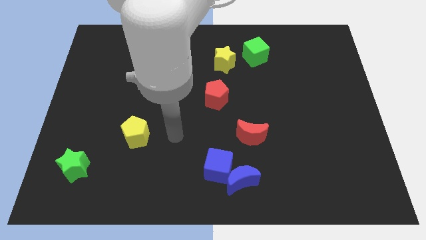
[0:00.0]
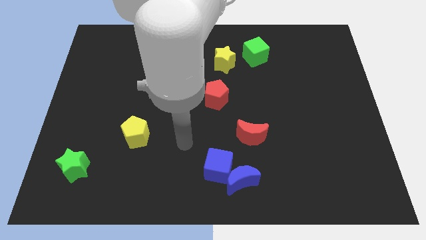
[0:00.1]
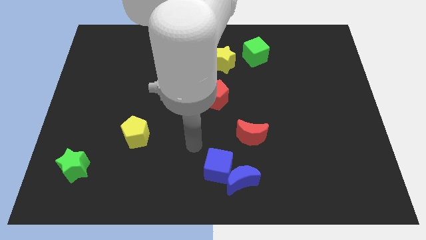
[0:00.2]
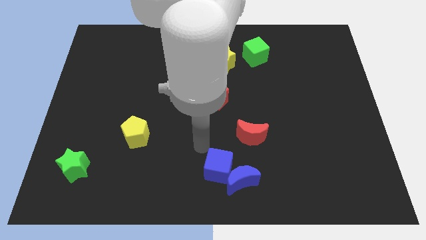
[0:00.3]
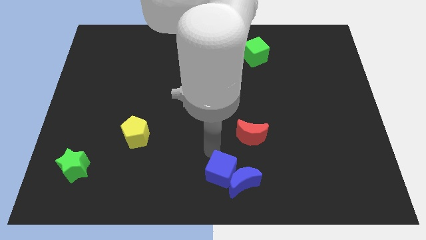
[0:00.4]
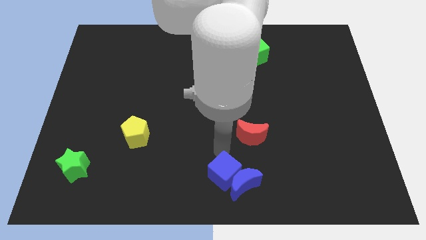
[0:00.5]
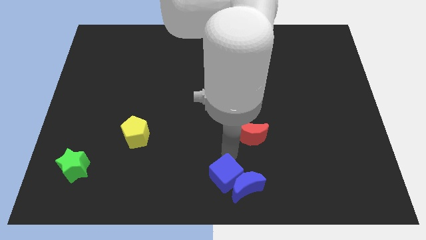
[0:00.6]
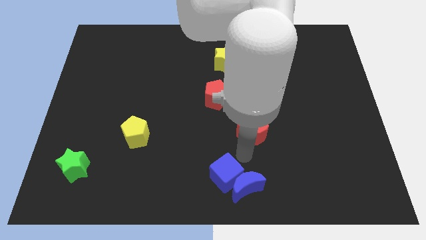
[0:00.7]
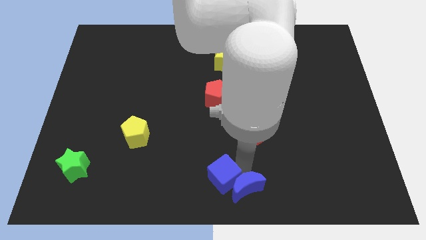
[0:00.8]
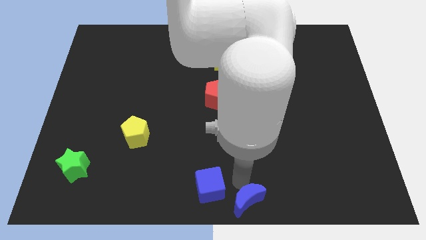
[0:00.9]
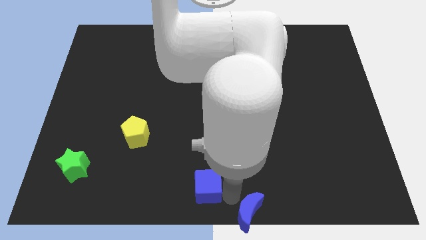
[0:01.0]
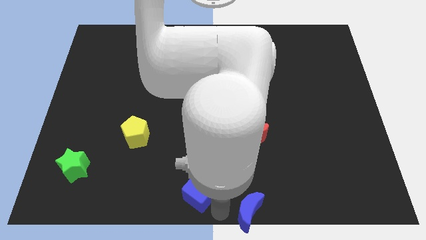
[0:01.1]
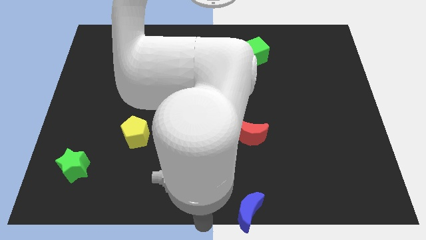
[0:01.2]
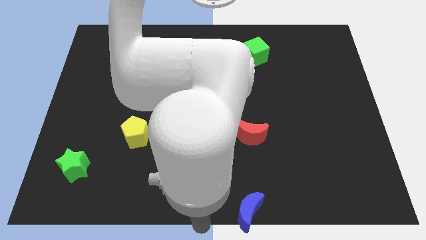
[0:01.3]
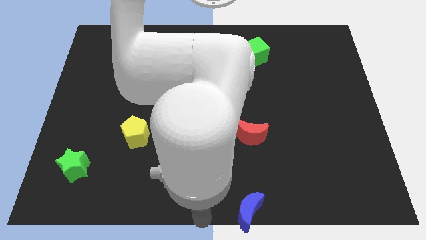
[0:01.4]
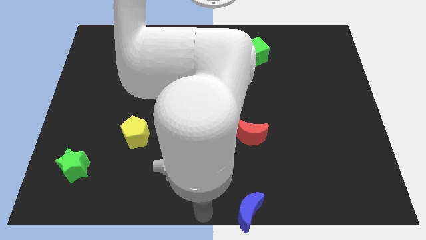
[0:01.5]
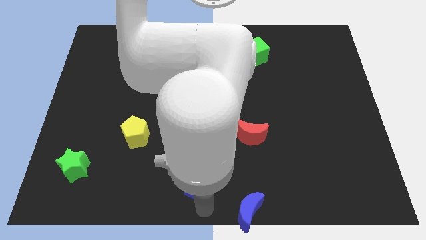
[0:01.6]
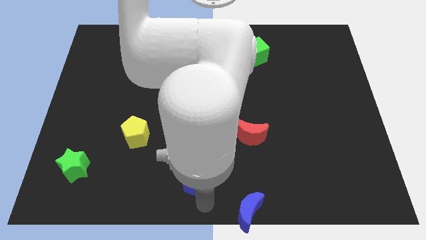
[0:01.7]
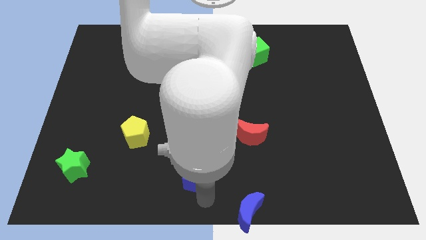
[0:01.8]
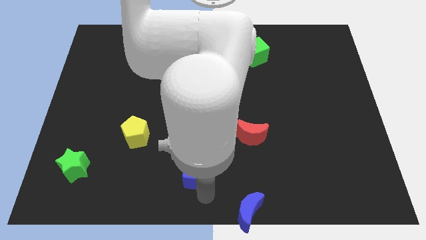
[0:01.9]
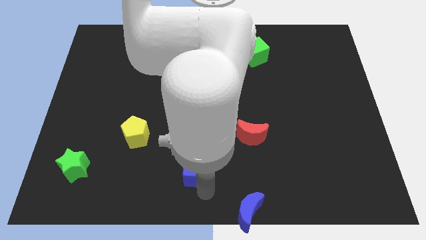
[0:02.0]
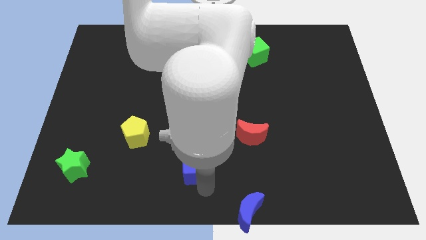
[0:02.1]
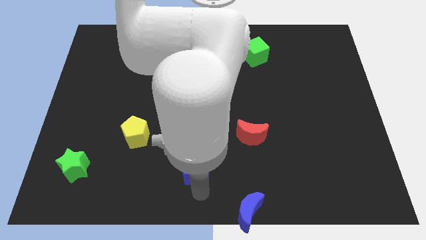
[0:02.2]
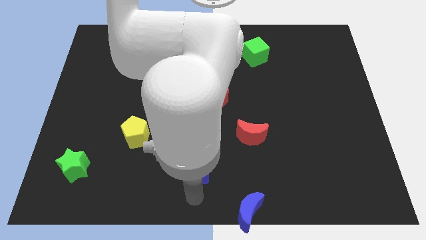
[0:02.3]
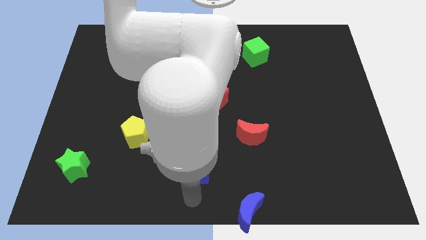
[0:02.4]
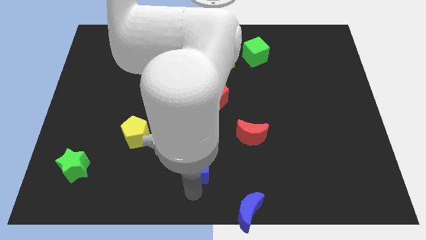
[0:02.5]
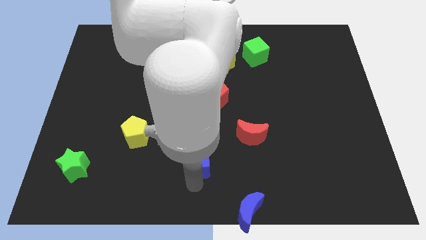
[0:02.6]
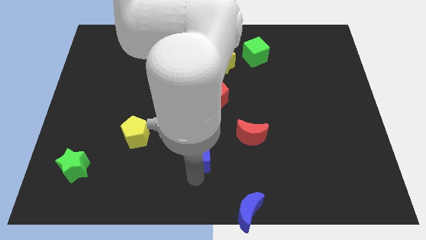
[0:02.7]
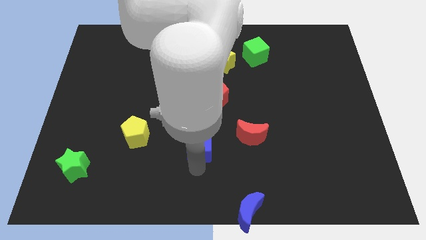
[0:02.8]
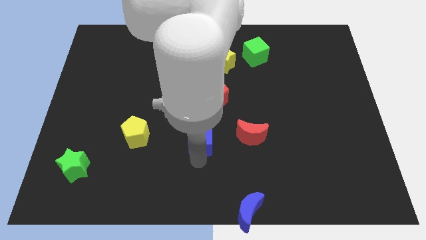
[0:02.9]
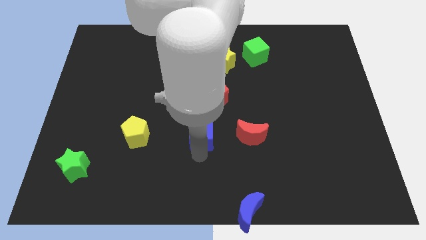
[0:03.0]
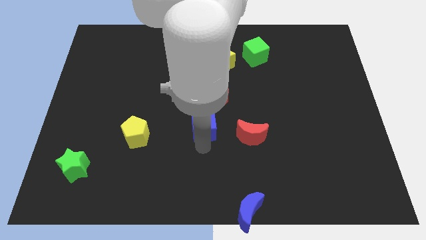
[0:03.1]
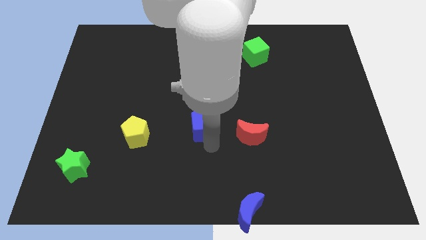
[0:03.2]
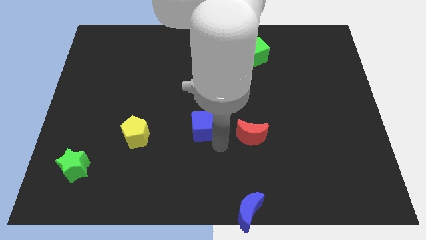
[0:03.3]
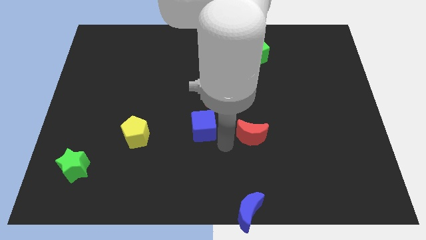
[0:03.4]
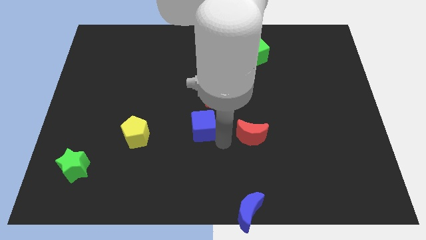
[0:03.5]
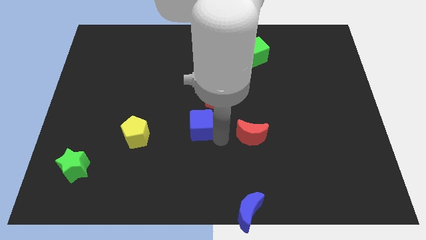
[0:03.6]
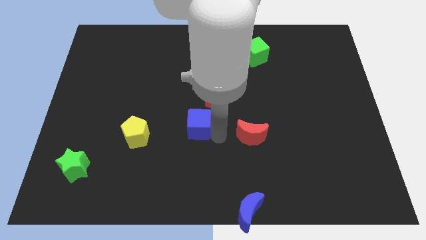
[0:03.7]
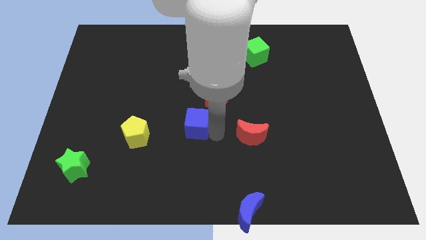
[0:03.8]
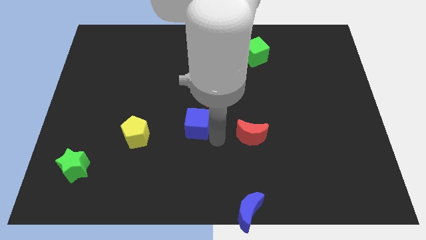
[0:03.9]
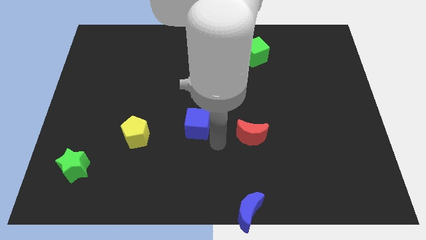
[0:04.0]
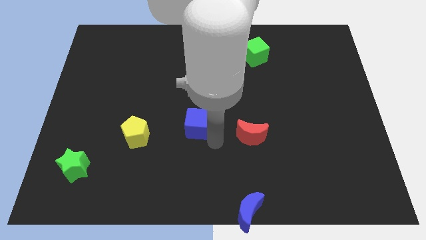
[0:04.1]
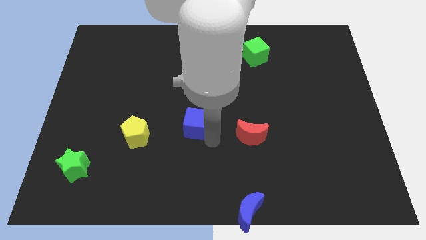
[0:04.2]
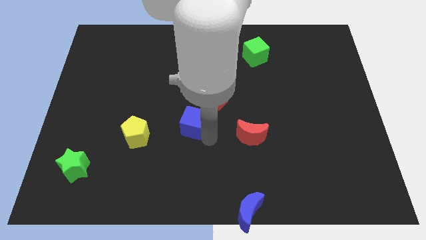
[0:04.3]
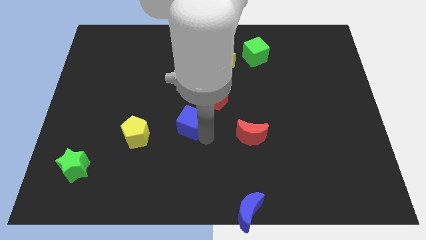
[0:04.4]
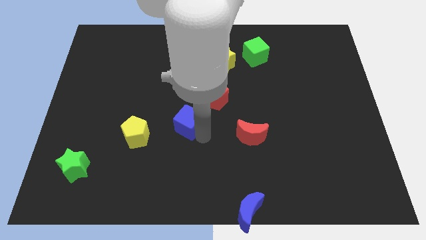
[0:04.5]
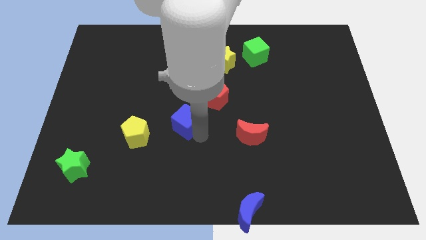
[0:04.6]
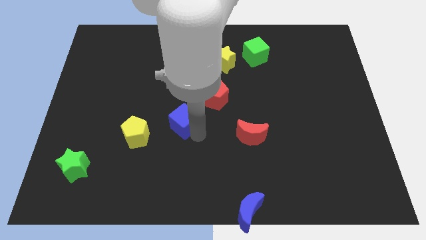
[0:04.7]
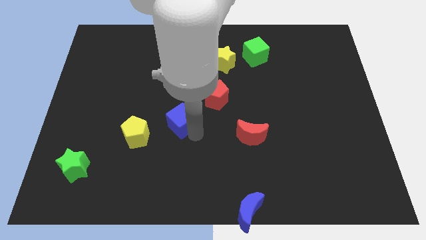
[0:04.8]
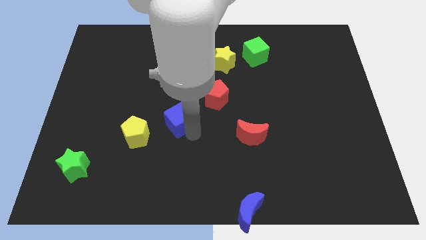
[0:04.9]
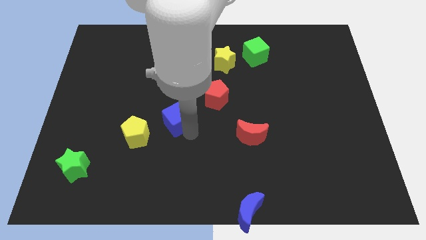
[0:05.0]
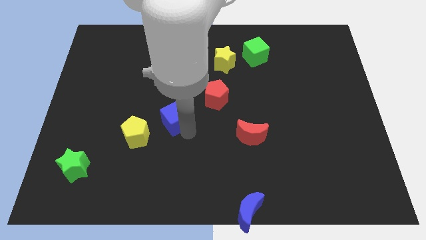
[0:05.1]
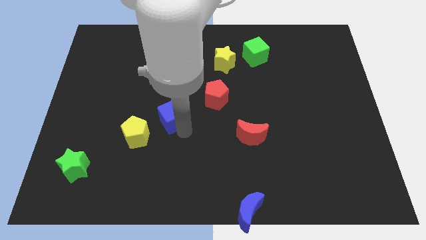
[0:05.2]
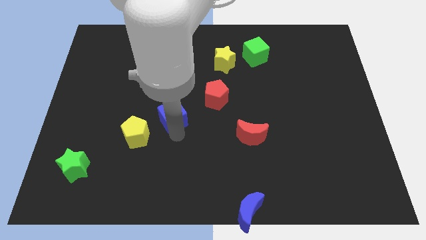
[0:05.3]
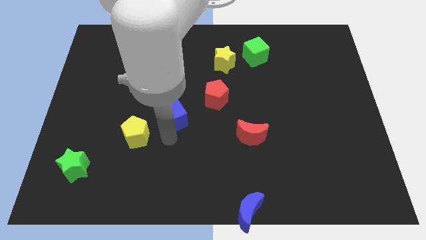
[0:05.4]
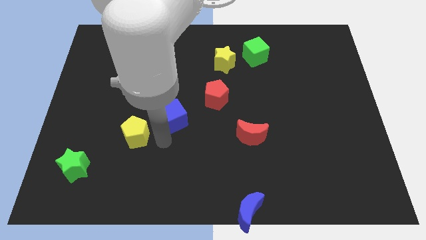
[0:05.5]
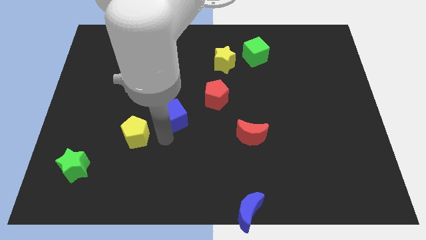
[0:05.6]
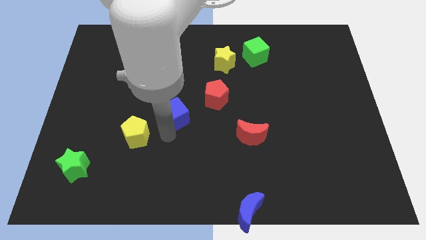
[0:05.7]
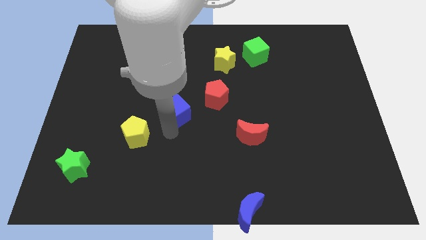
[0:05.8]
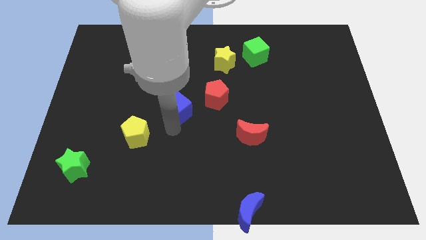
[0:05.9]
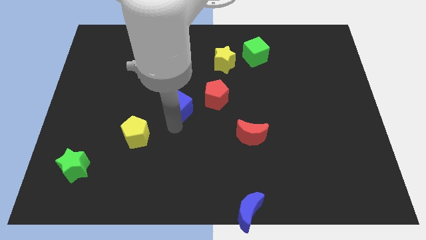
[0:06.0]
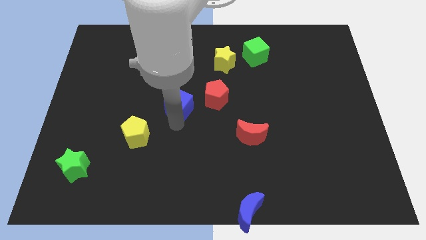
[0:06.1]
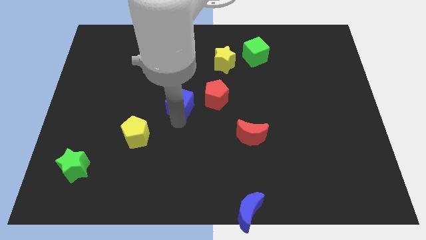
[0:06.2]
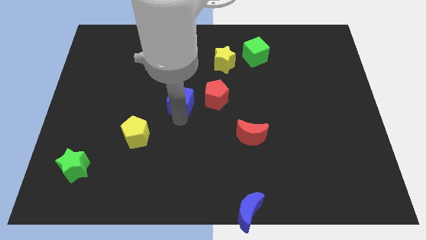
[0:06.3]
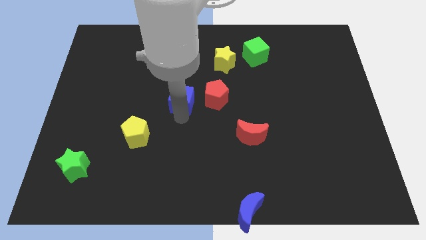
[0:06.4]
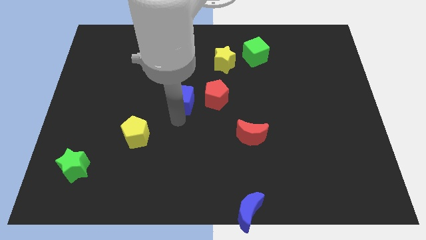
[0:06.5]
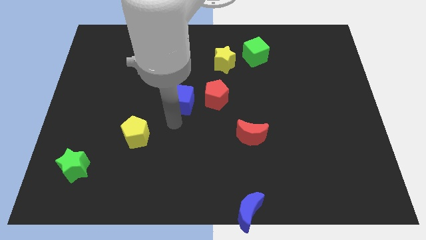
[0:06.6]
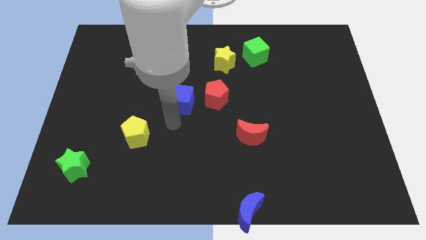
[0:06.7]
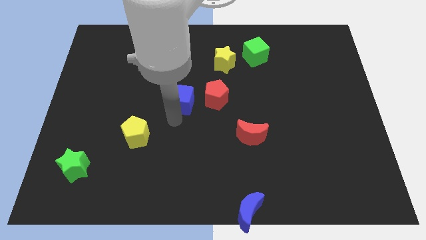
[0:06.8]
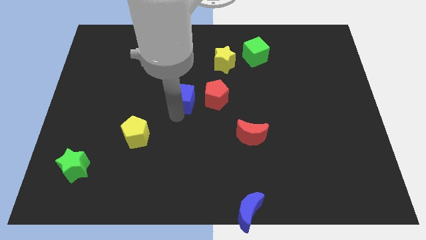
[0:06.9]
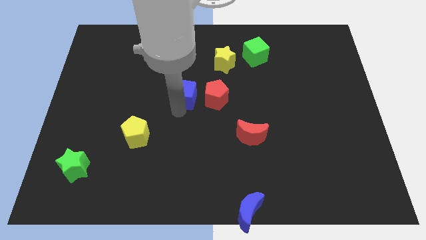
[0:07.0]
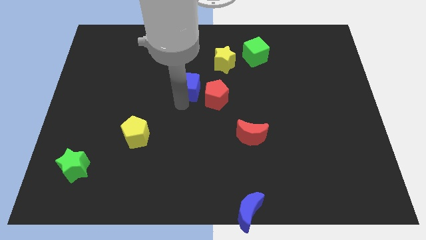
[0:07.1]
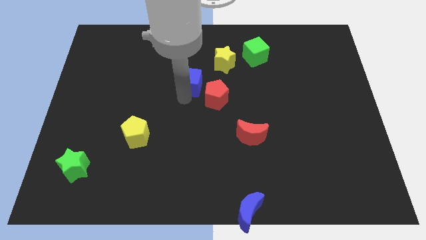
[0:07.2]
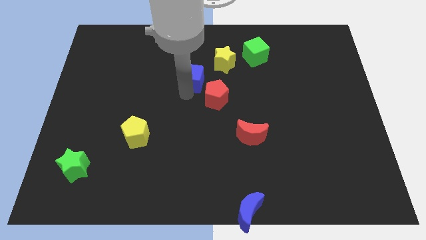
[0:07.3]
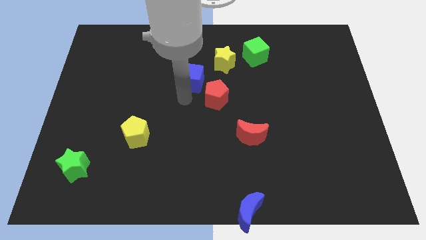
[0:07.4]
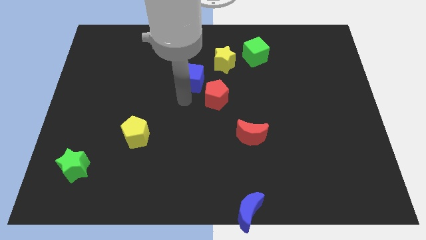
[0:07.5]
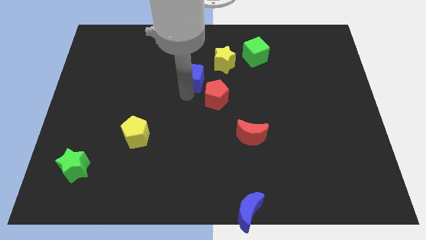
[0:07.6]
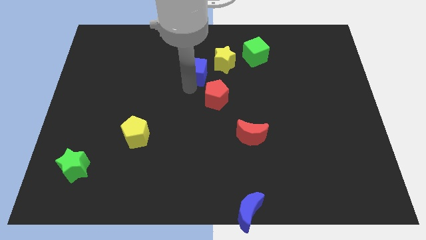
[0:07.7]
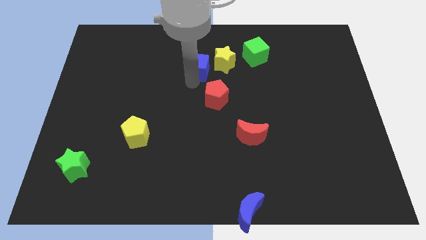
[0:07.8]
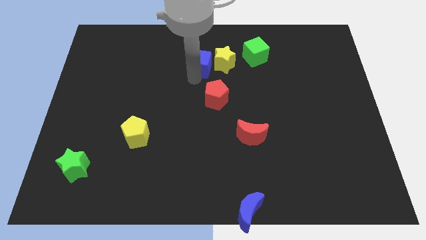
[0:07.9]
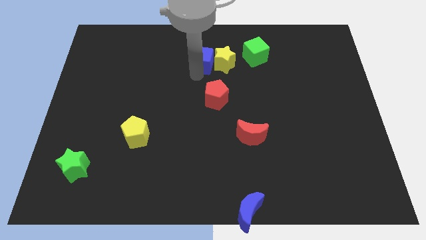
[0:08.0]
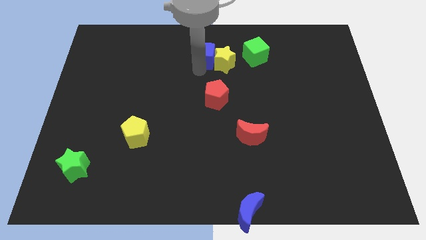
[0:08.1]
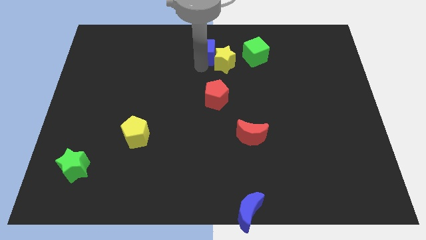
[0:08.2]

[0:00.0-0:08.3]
push the blue cube to the towards your base
